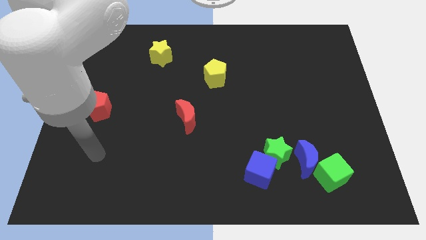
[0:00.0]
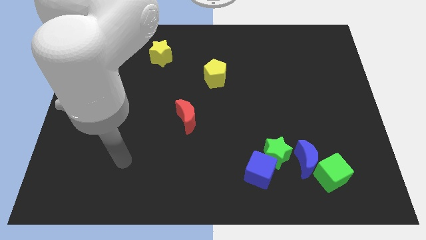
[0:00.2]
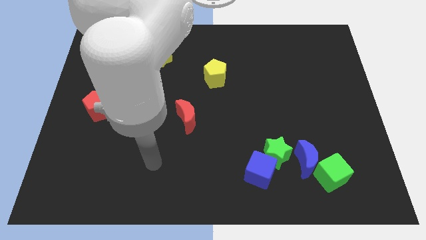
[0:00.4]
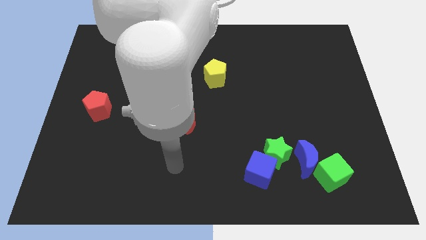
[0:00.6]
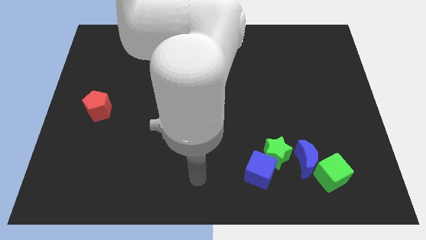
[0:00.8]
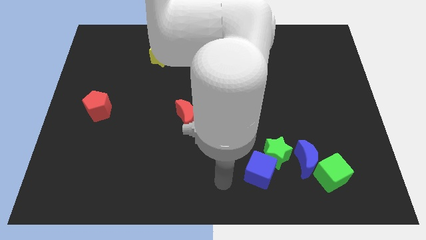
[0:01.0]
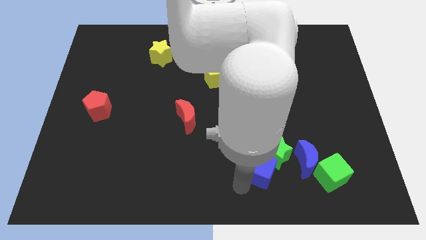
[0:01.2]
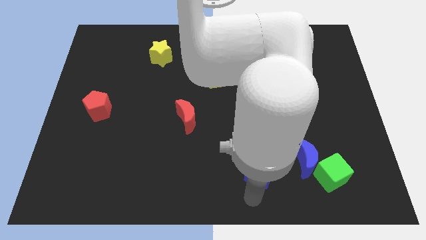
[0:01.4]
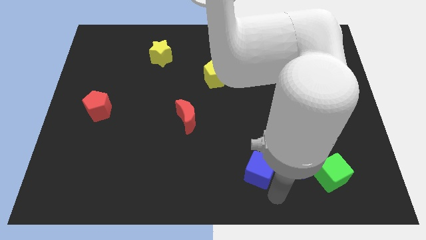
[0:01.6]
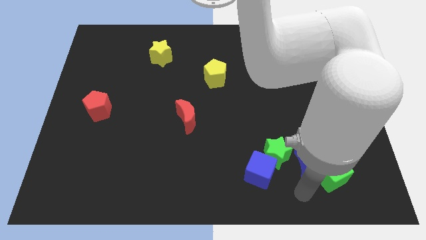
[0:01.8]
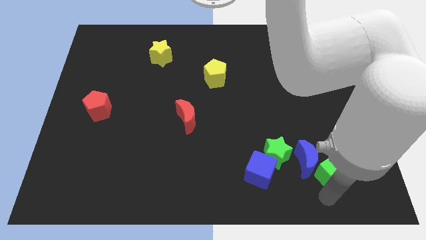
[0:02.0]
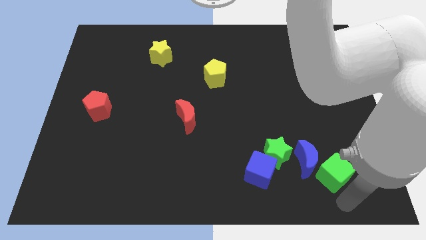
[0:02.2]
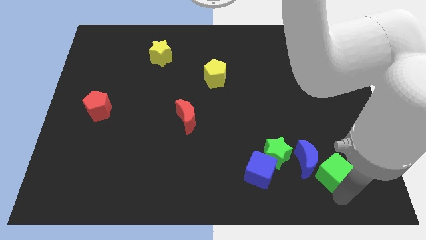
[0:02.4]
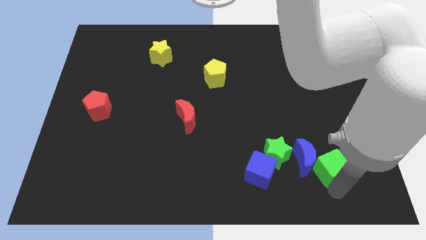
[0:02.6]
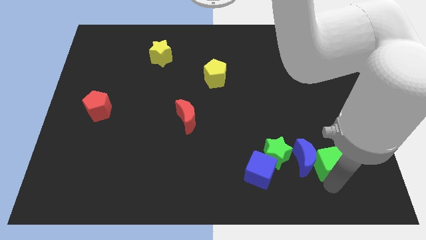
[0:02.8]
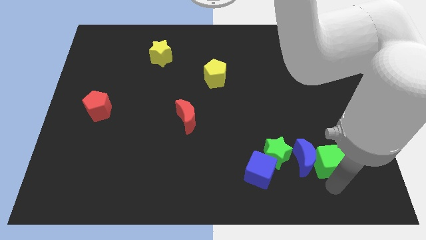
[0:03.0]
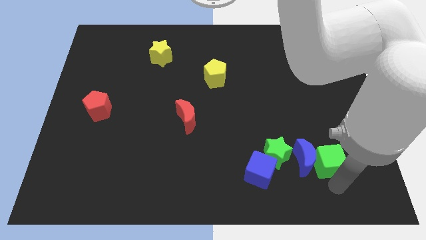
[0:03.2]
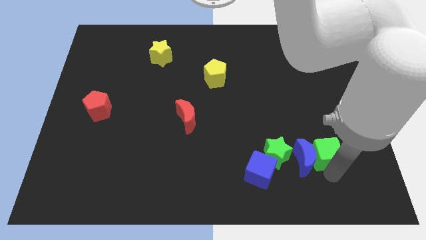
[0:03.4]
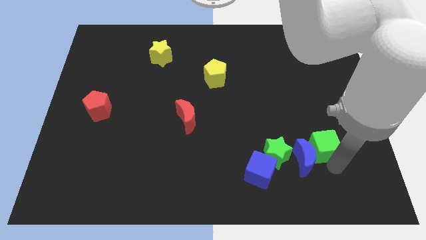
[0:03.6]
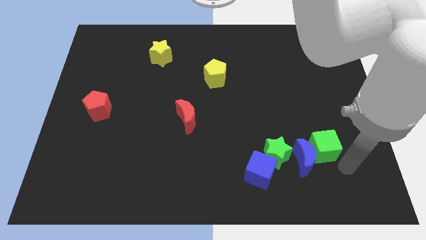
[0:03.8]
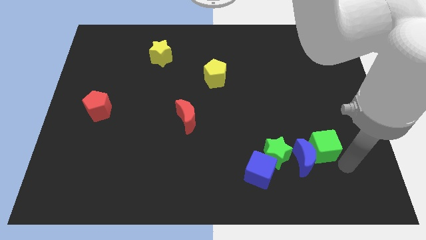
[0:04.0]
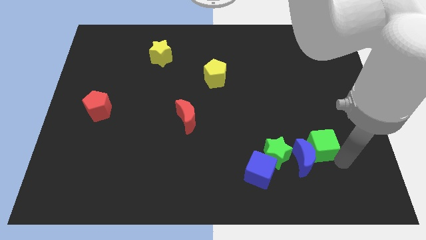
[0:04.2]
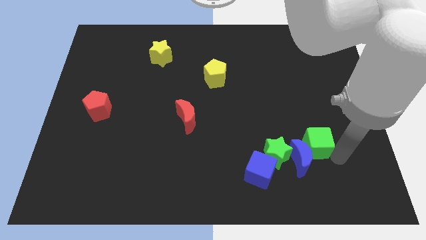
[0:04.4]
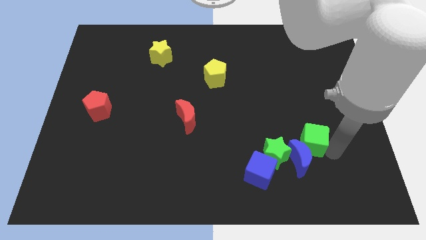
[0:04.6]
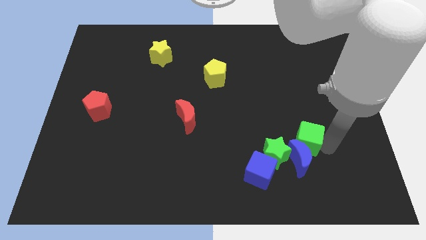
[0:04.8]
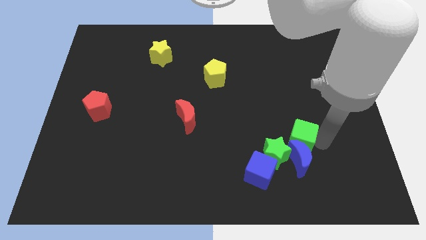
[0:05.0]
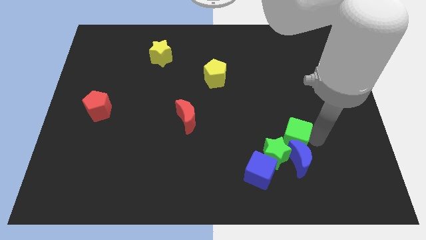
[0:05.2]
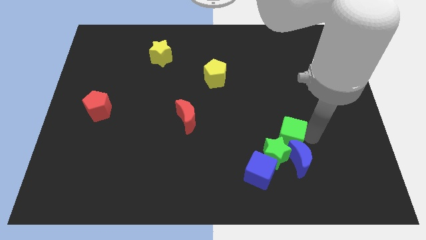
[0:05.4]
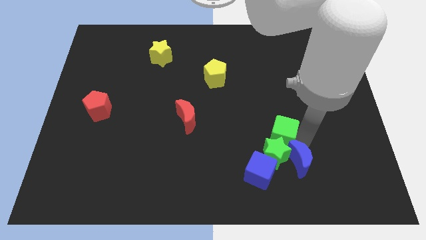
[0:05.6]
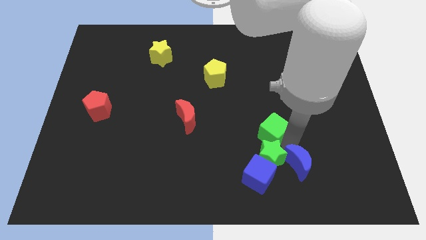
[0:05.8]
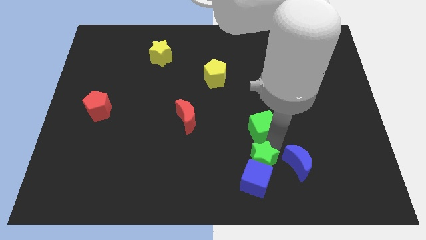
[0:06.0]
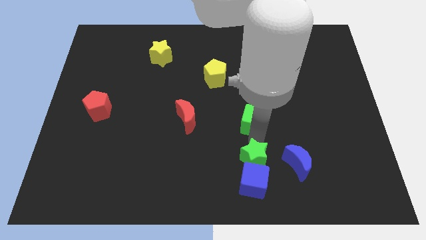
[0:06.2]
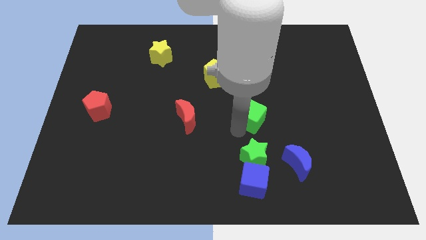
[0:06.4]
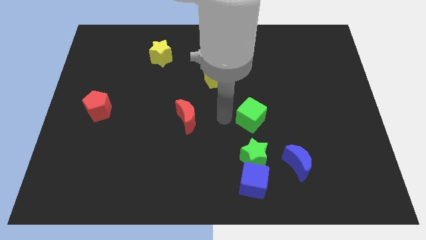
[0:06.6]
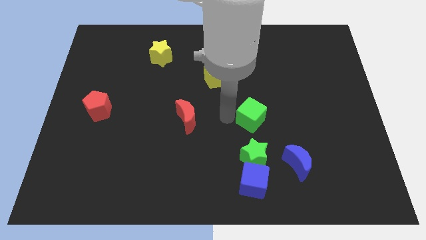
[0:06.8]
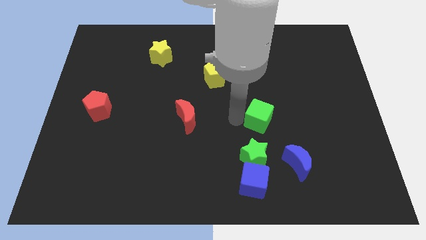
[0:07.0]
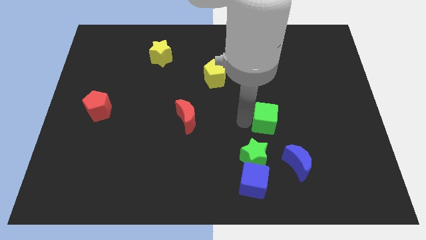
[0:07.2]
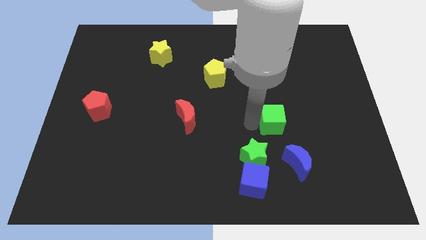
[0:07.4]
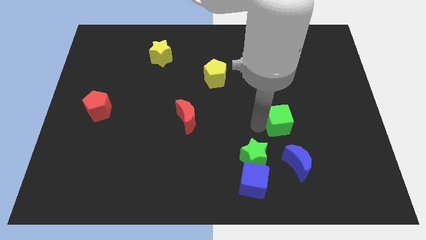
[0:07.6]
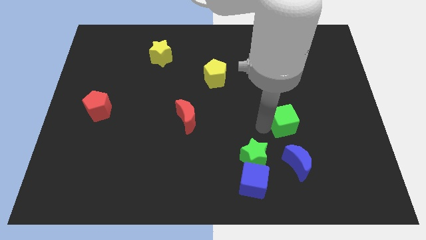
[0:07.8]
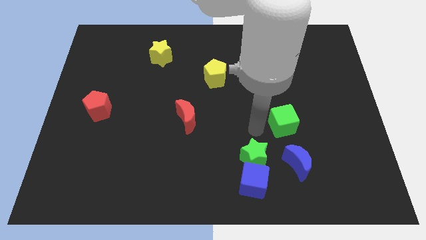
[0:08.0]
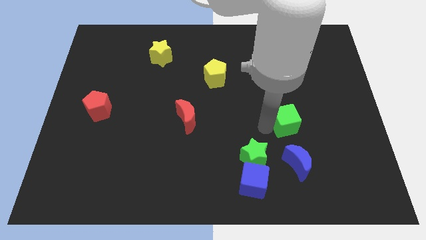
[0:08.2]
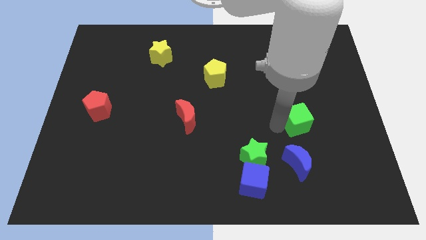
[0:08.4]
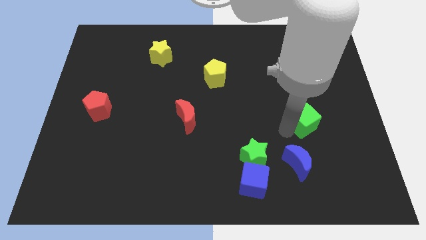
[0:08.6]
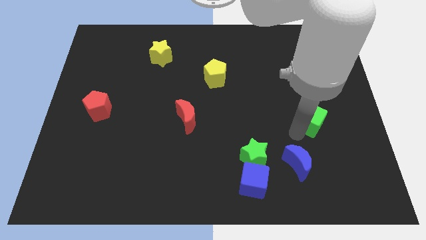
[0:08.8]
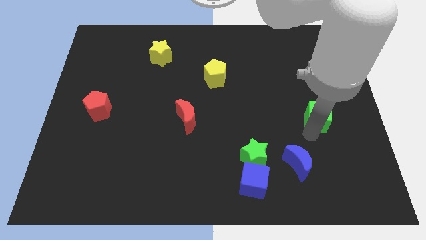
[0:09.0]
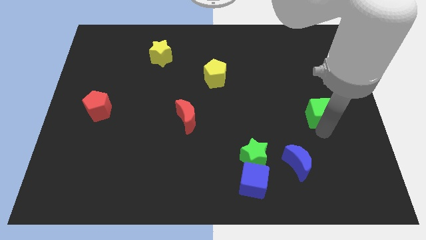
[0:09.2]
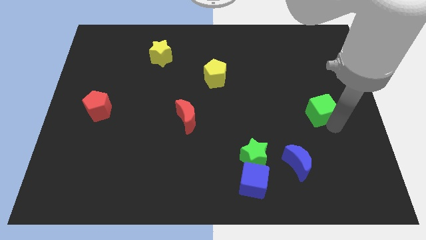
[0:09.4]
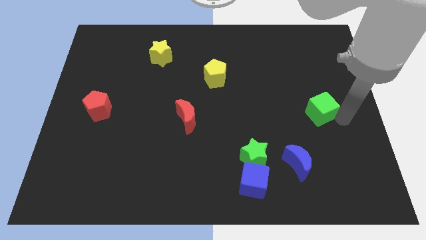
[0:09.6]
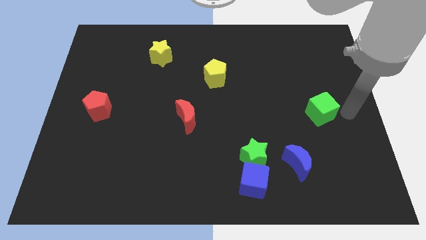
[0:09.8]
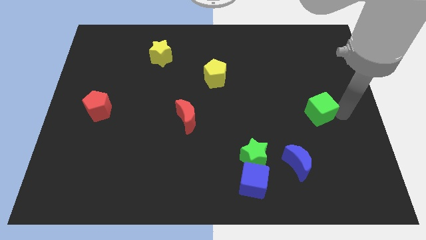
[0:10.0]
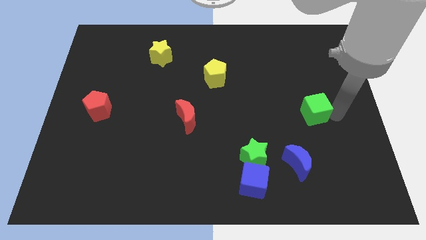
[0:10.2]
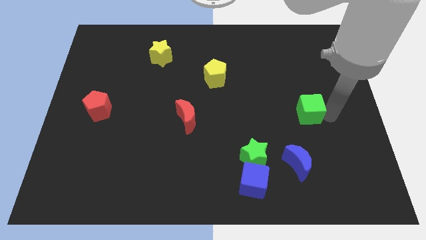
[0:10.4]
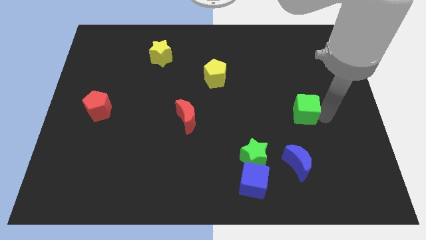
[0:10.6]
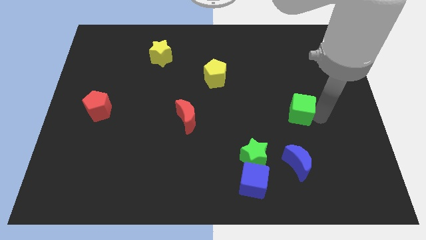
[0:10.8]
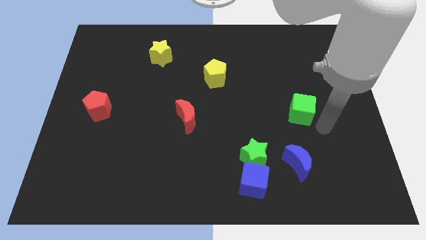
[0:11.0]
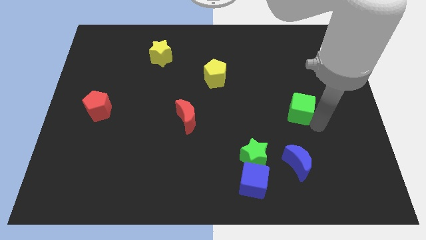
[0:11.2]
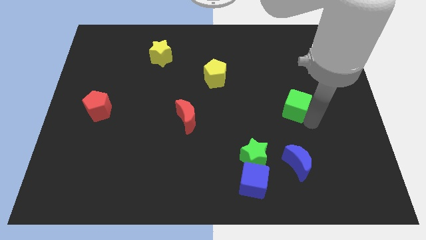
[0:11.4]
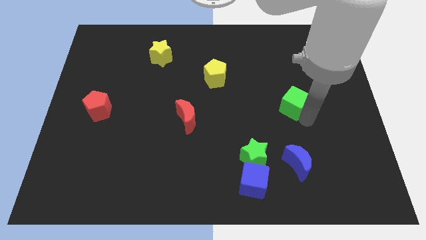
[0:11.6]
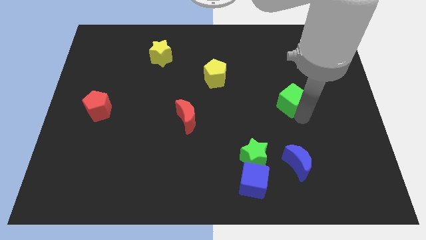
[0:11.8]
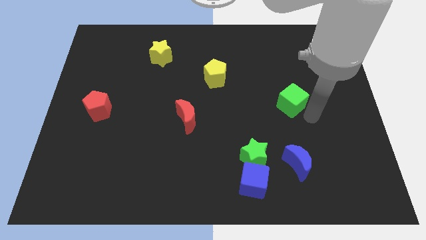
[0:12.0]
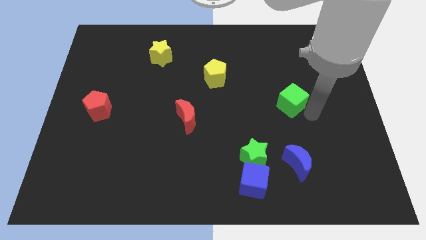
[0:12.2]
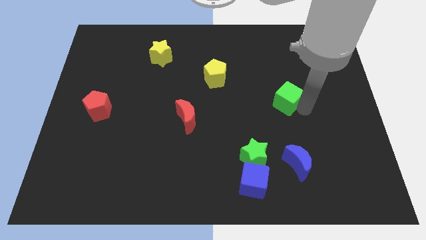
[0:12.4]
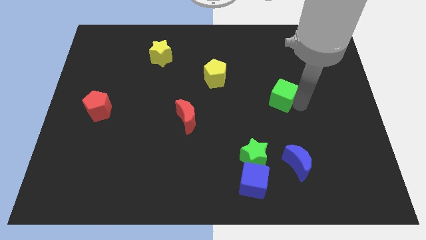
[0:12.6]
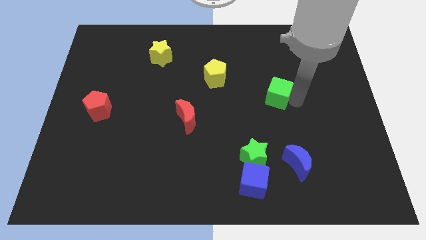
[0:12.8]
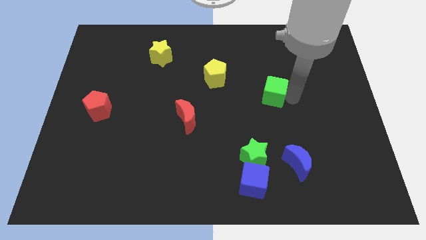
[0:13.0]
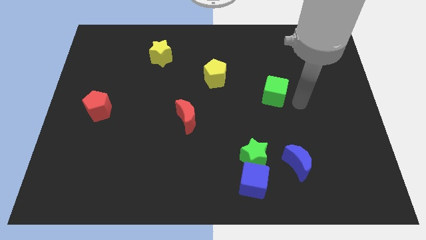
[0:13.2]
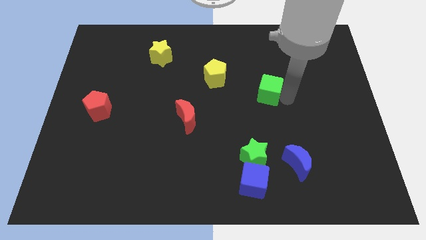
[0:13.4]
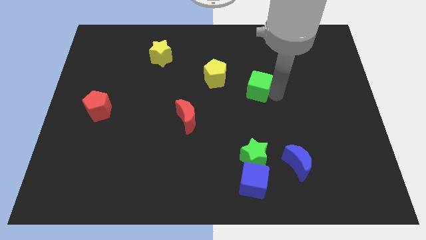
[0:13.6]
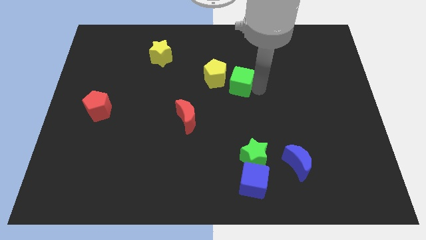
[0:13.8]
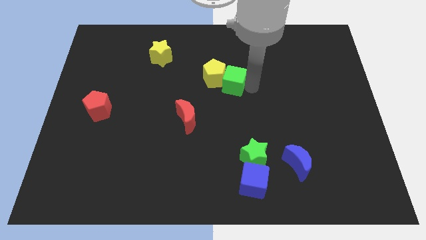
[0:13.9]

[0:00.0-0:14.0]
put the green cube towards the yellow pentagon
